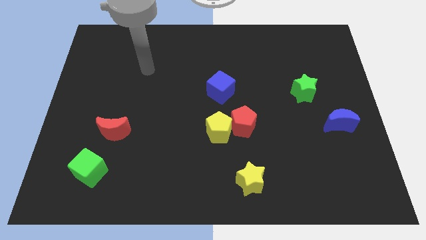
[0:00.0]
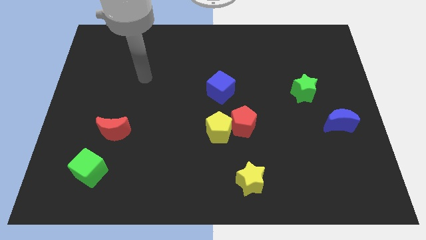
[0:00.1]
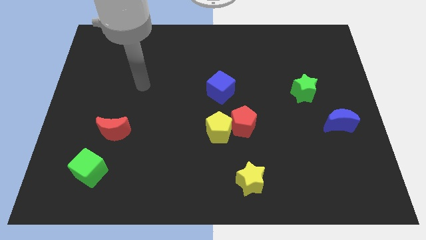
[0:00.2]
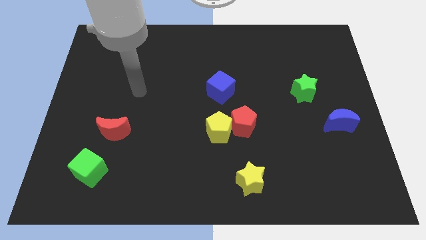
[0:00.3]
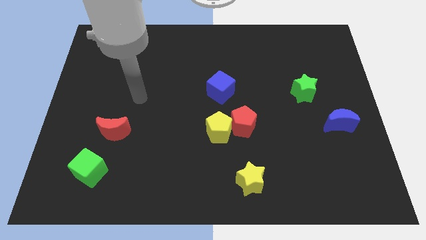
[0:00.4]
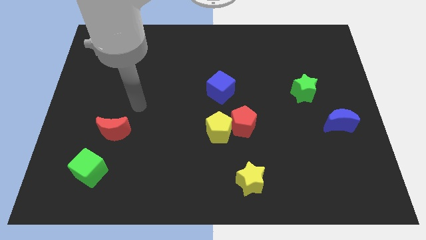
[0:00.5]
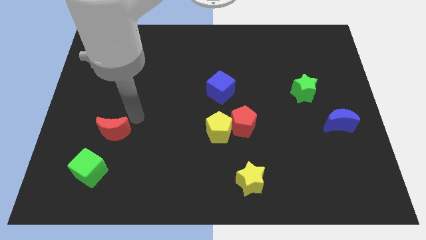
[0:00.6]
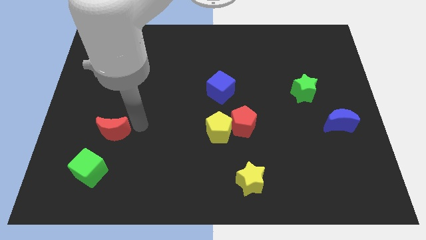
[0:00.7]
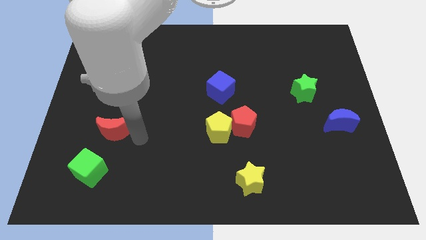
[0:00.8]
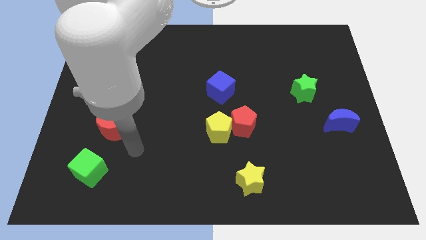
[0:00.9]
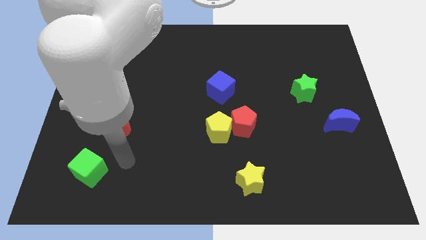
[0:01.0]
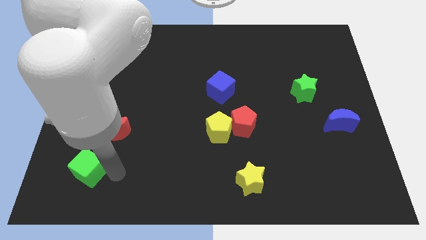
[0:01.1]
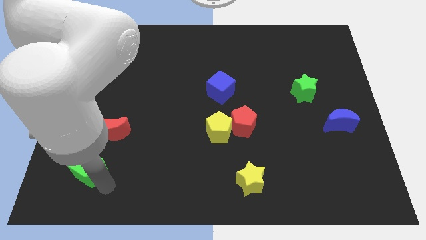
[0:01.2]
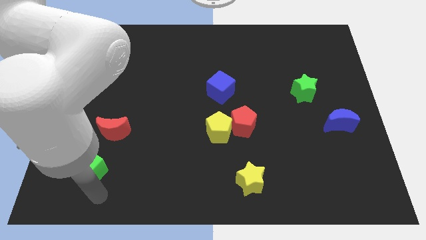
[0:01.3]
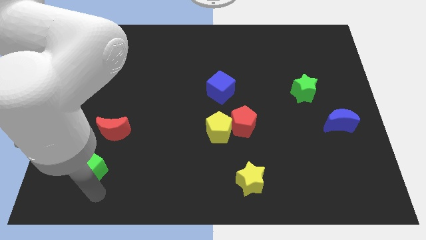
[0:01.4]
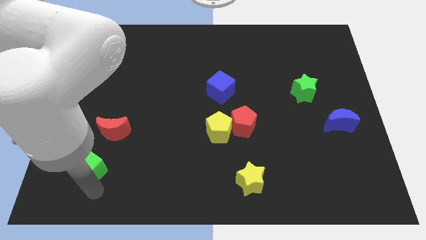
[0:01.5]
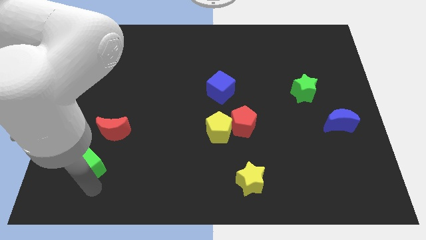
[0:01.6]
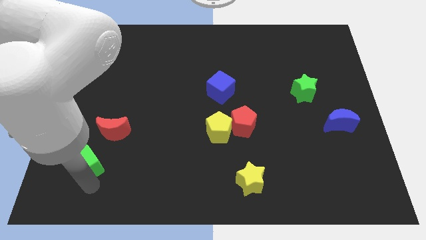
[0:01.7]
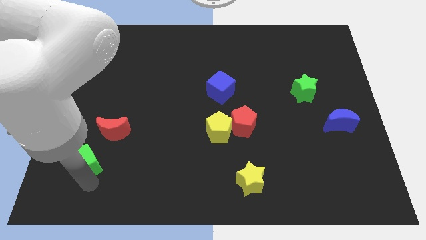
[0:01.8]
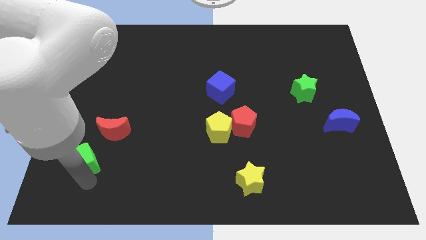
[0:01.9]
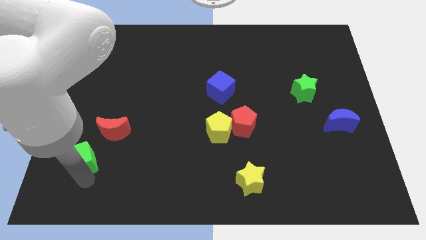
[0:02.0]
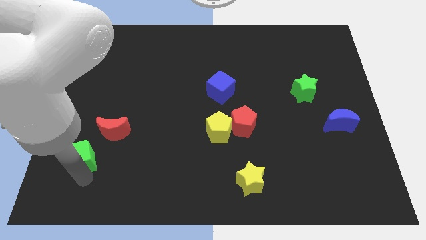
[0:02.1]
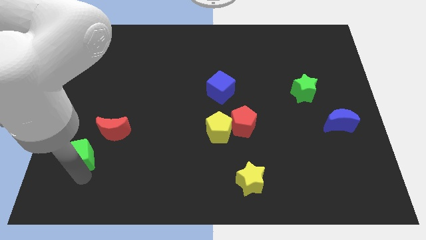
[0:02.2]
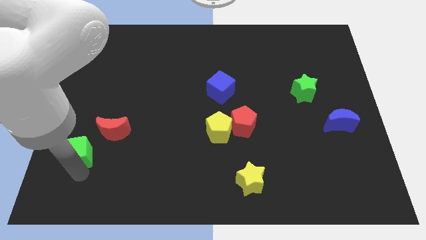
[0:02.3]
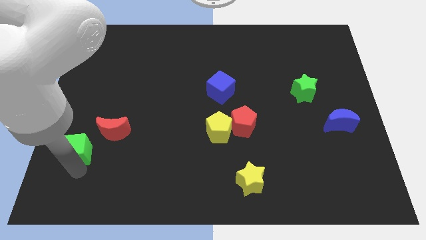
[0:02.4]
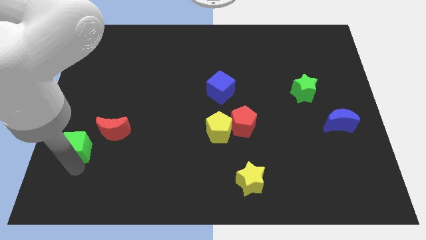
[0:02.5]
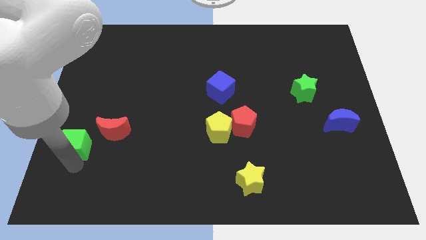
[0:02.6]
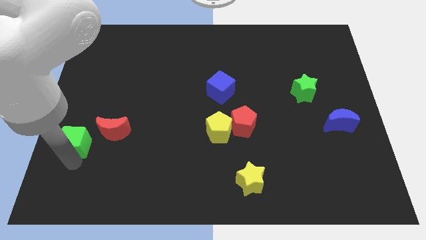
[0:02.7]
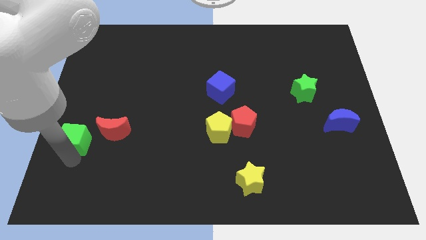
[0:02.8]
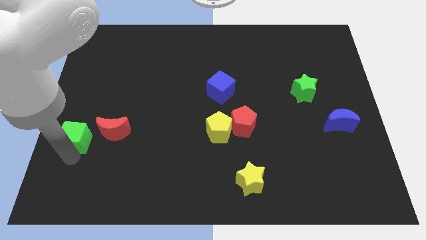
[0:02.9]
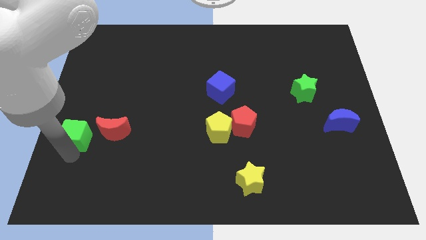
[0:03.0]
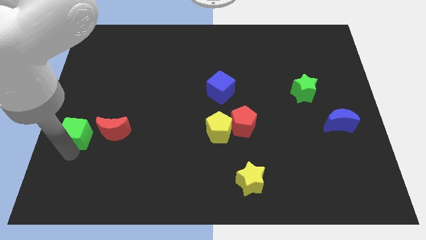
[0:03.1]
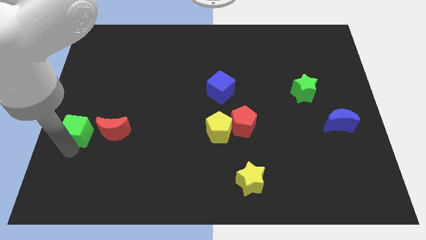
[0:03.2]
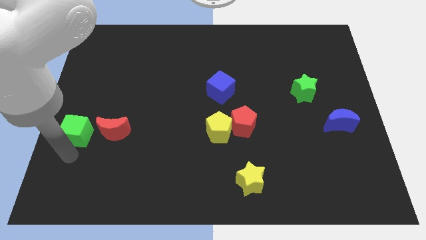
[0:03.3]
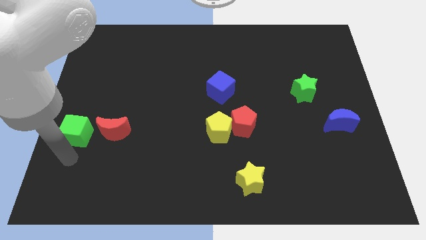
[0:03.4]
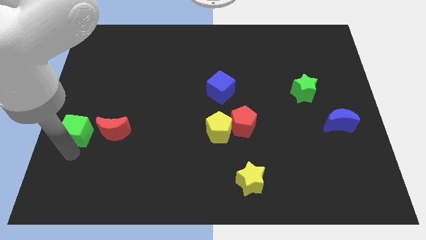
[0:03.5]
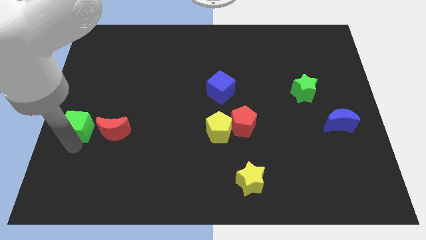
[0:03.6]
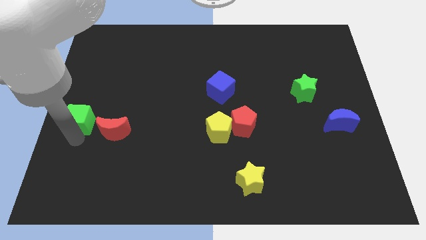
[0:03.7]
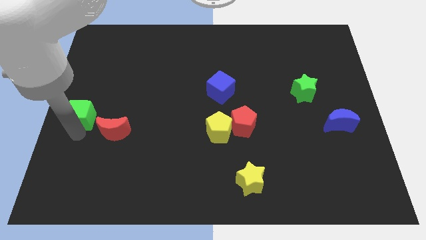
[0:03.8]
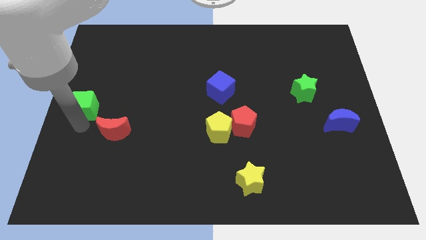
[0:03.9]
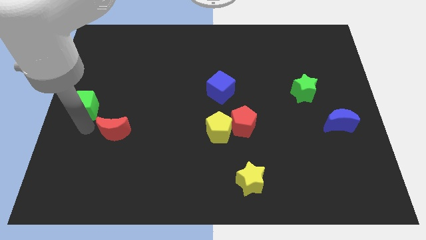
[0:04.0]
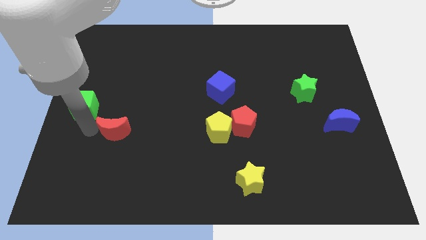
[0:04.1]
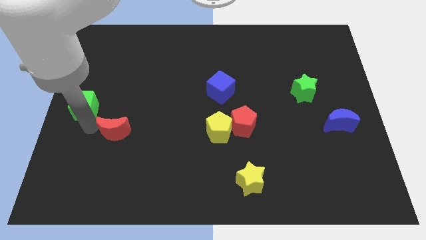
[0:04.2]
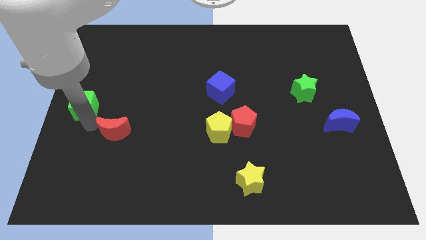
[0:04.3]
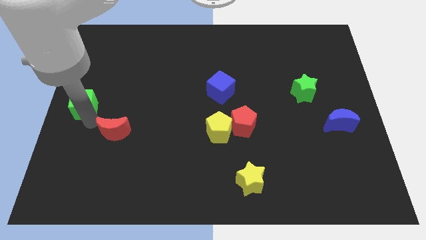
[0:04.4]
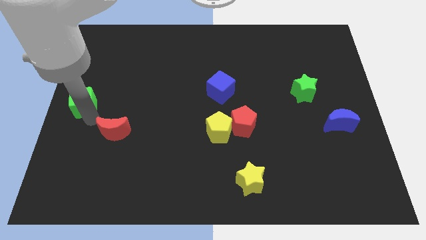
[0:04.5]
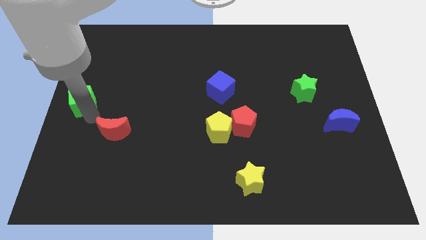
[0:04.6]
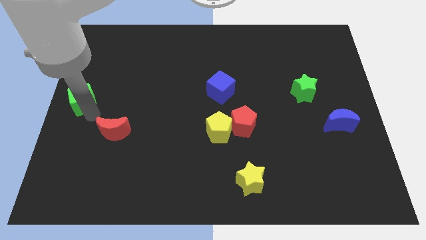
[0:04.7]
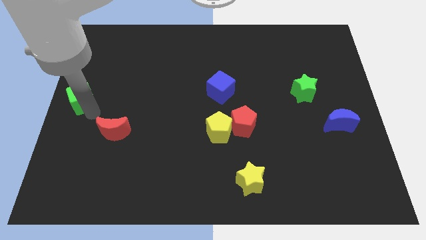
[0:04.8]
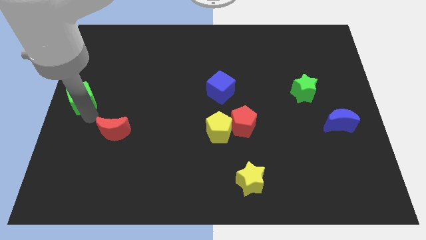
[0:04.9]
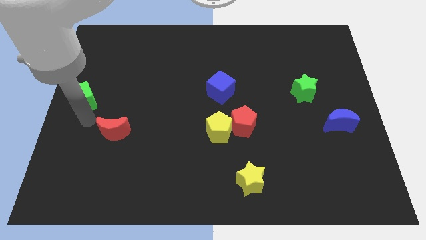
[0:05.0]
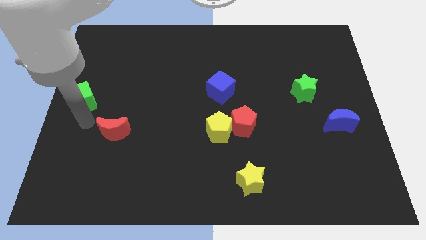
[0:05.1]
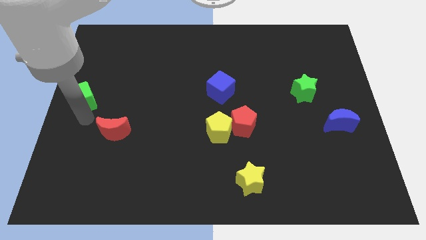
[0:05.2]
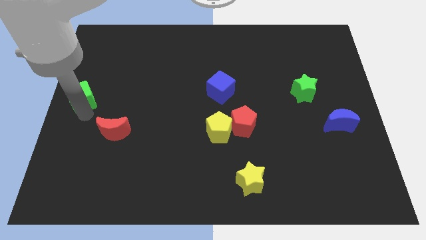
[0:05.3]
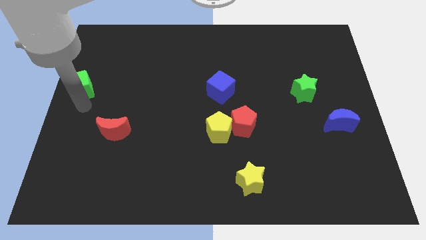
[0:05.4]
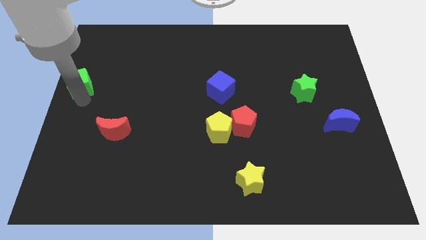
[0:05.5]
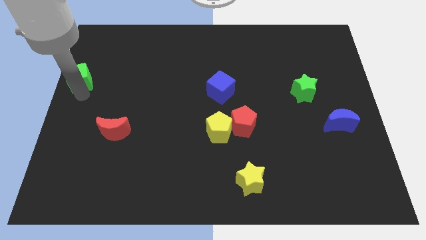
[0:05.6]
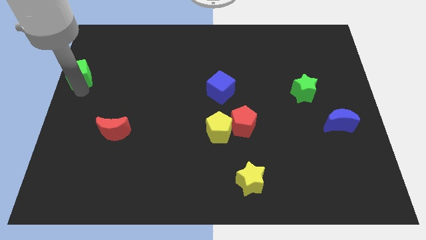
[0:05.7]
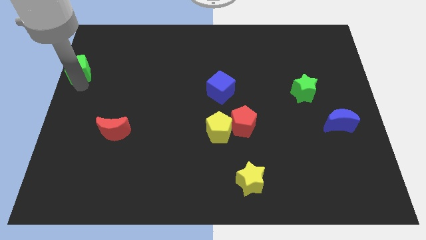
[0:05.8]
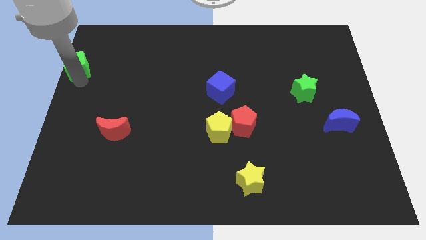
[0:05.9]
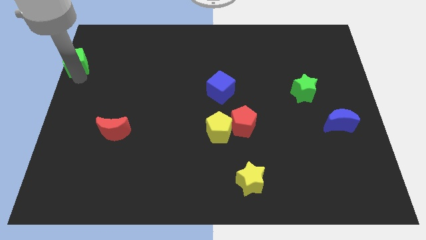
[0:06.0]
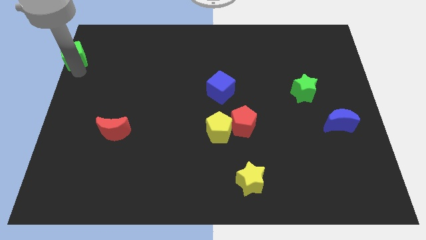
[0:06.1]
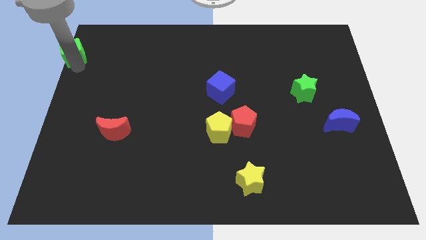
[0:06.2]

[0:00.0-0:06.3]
move the green cube to the top left
